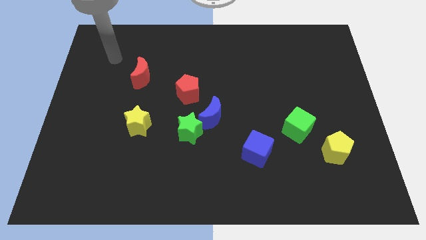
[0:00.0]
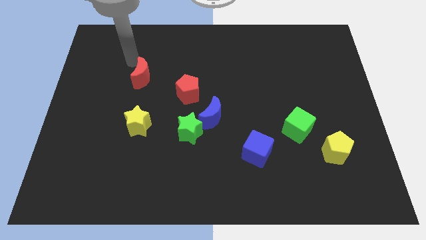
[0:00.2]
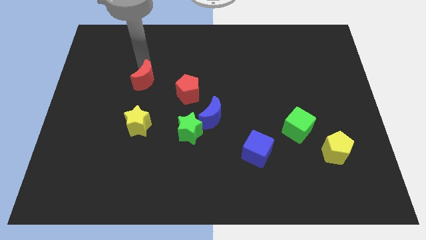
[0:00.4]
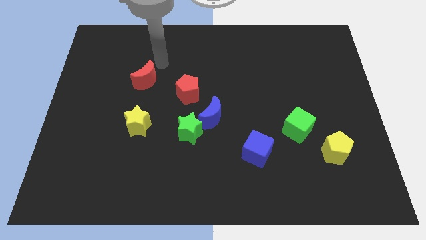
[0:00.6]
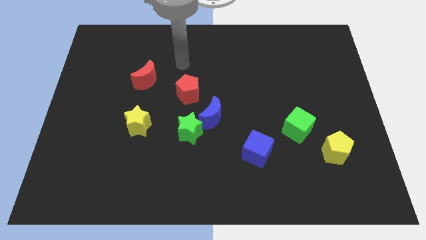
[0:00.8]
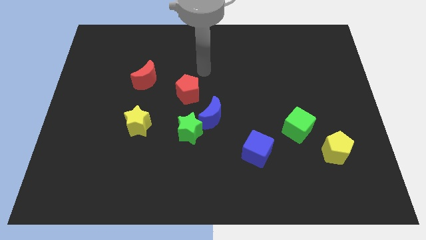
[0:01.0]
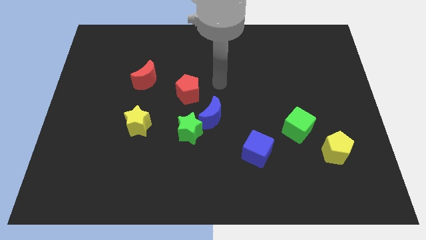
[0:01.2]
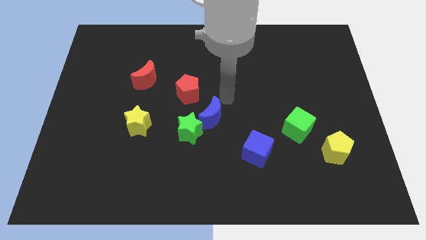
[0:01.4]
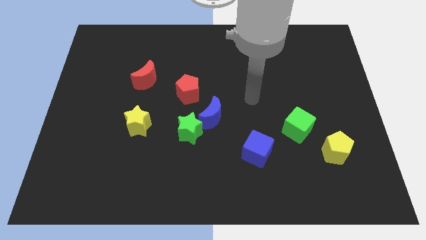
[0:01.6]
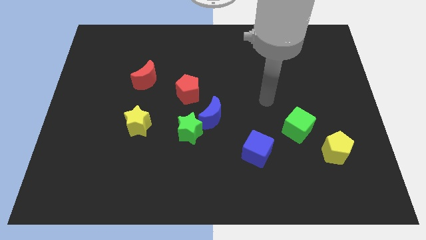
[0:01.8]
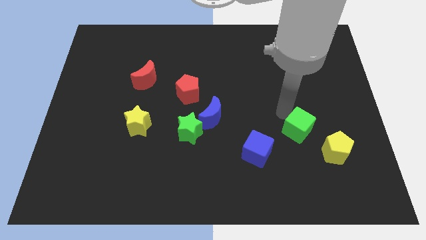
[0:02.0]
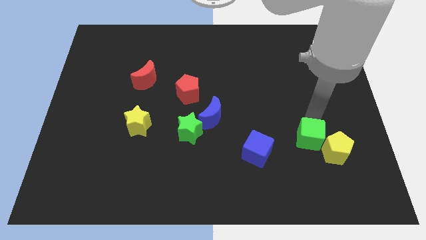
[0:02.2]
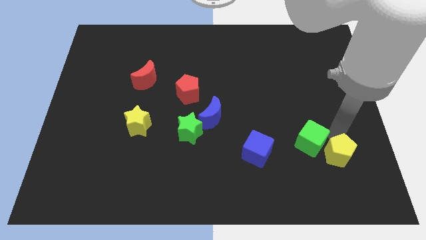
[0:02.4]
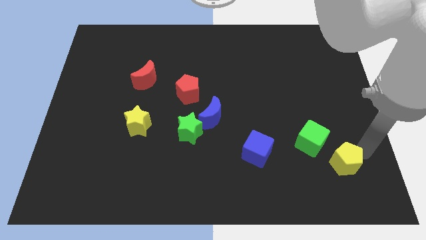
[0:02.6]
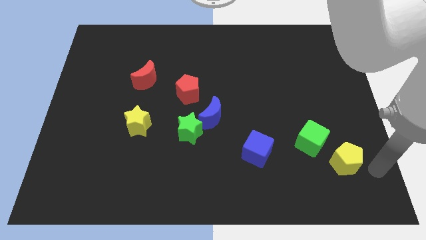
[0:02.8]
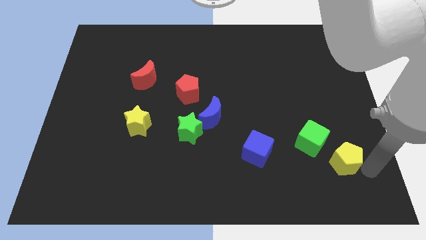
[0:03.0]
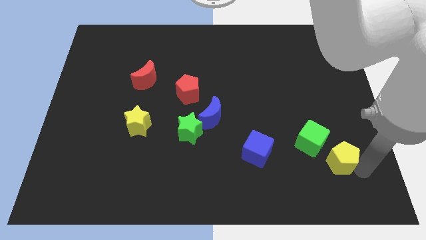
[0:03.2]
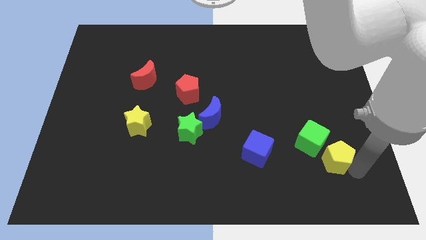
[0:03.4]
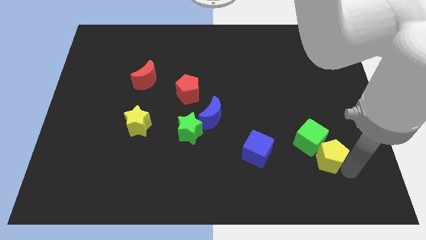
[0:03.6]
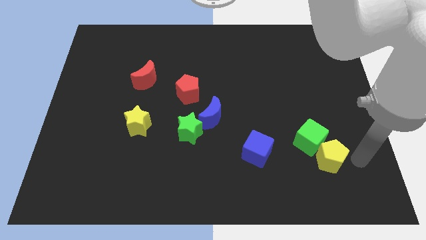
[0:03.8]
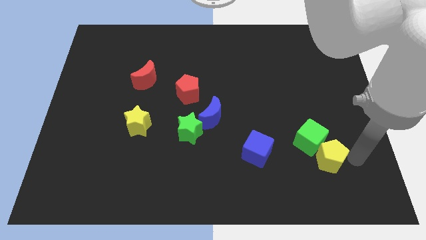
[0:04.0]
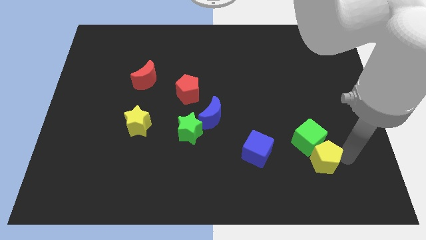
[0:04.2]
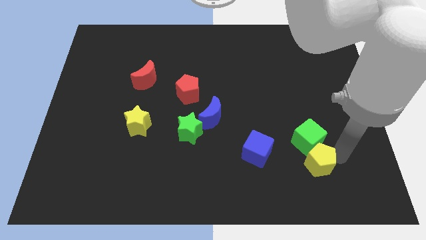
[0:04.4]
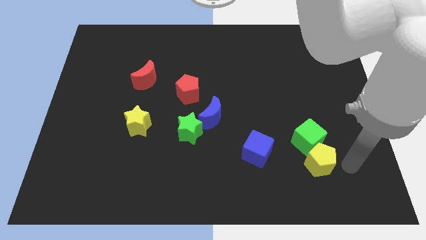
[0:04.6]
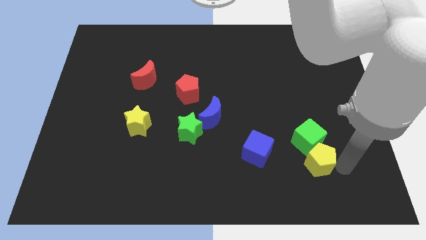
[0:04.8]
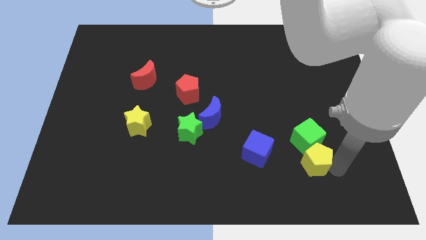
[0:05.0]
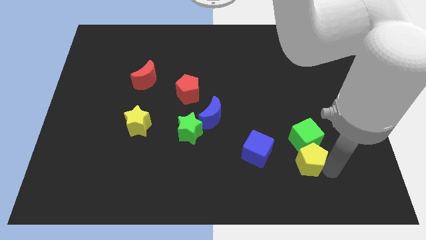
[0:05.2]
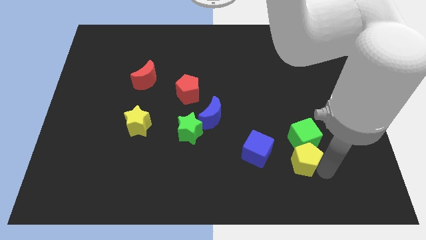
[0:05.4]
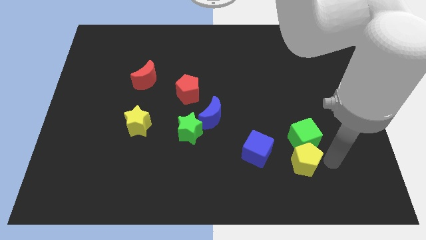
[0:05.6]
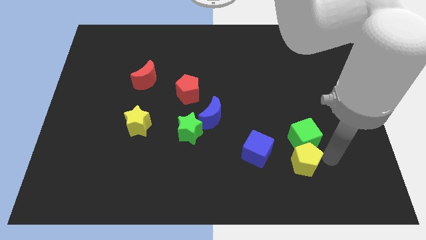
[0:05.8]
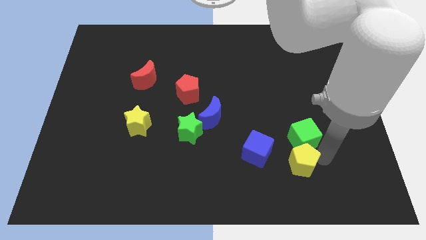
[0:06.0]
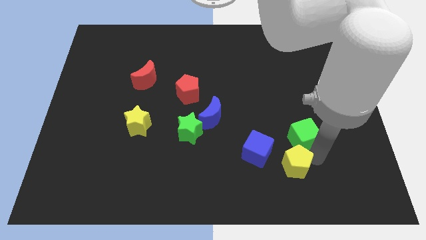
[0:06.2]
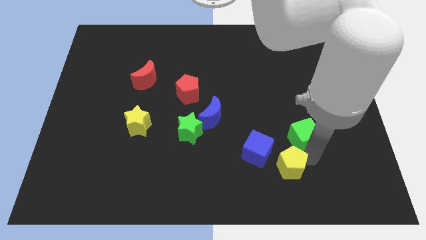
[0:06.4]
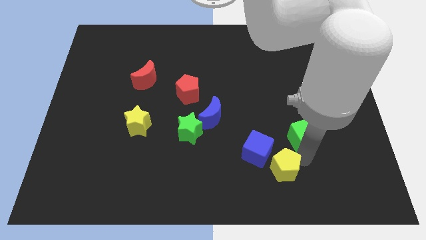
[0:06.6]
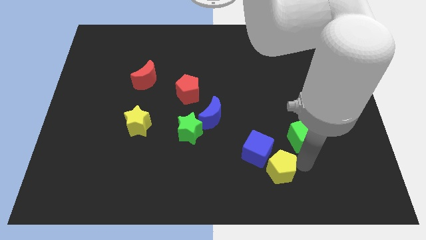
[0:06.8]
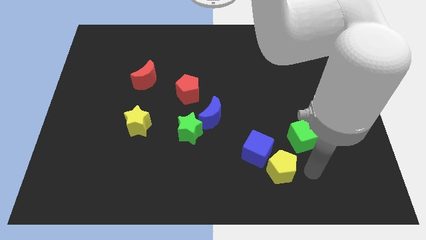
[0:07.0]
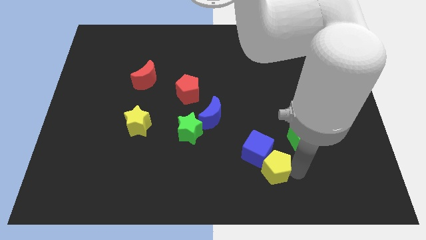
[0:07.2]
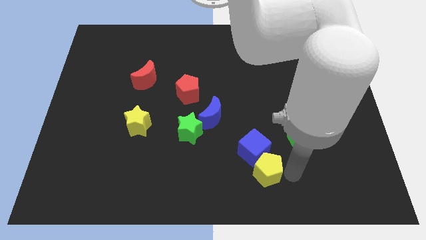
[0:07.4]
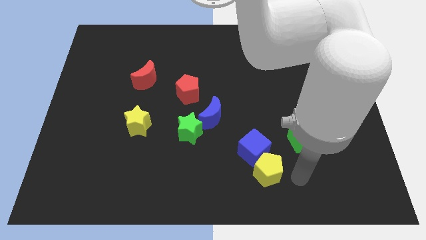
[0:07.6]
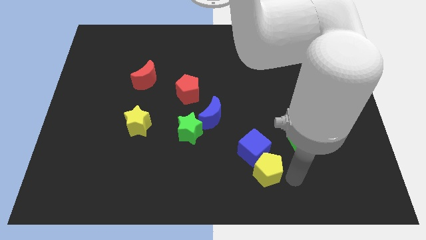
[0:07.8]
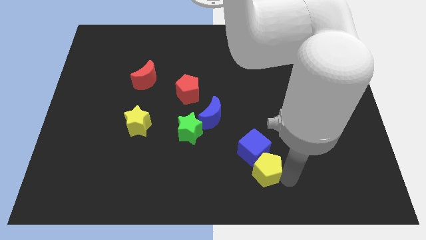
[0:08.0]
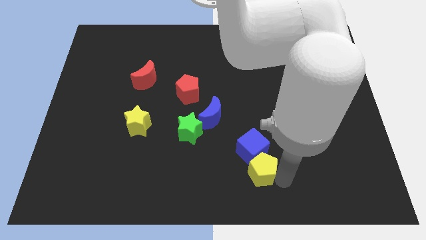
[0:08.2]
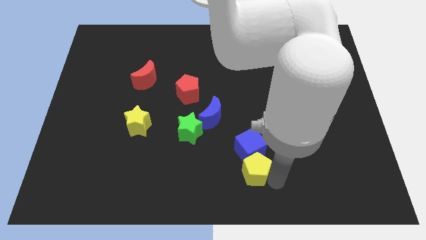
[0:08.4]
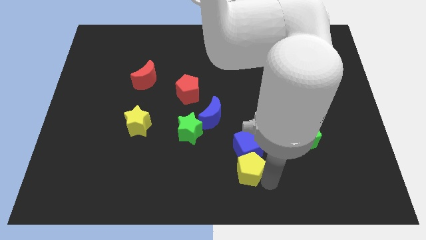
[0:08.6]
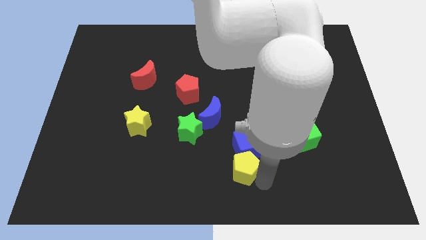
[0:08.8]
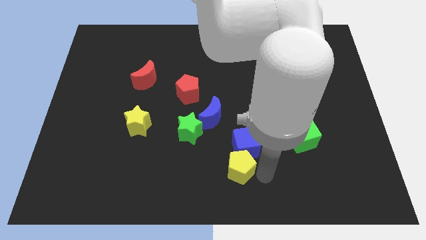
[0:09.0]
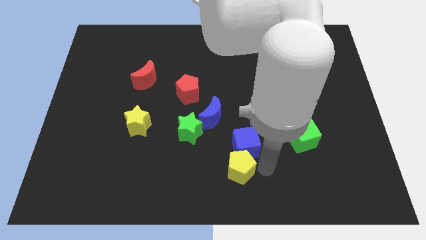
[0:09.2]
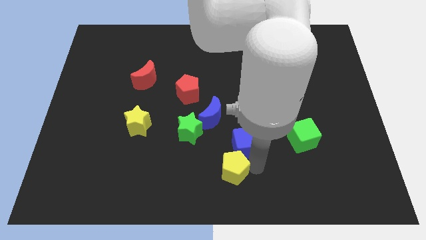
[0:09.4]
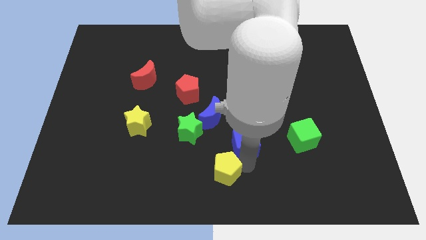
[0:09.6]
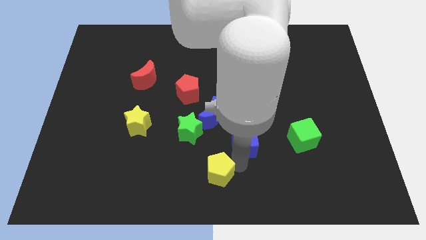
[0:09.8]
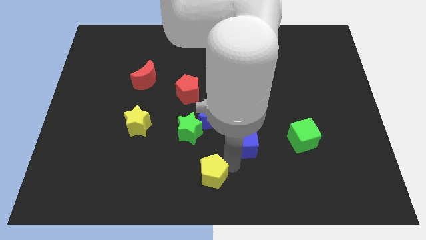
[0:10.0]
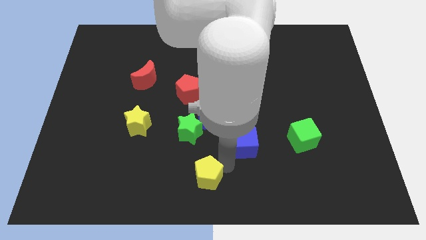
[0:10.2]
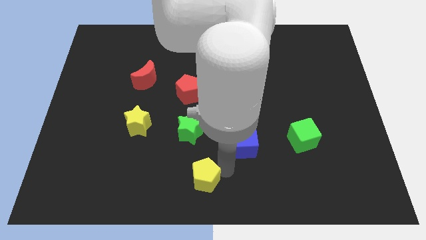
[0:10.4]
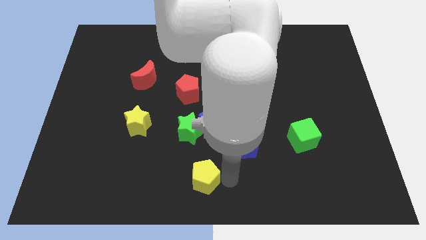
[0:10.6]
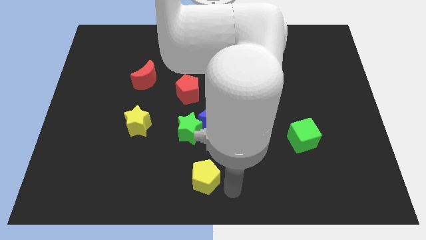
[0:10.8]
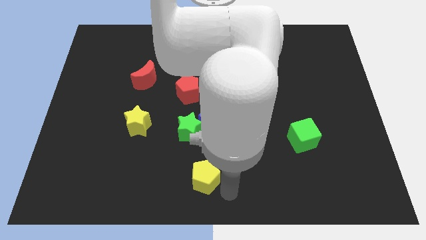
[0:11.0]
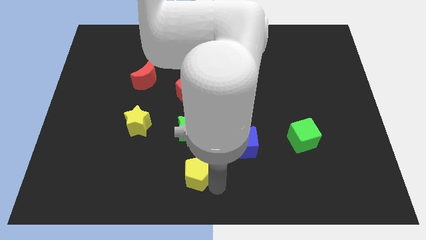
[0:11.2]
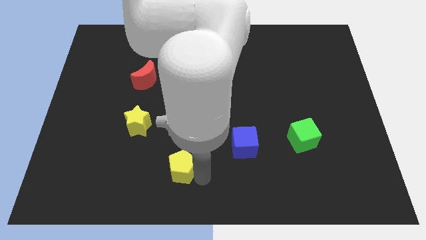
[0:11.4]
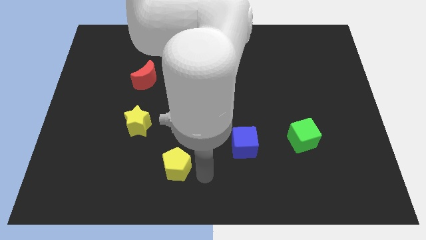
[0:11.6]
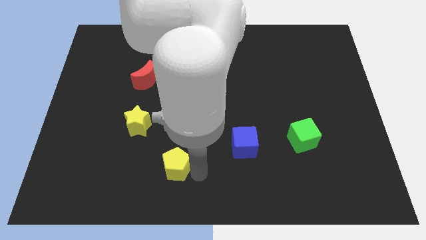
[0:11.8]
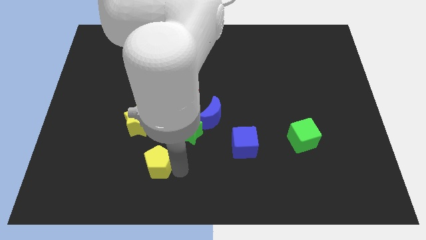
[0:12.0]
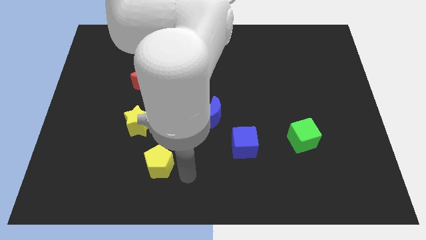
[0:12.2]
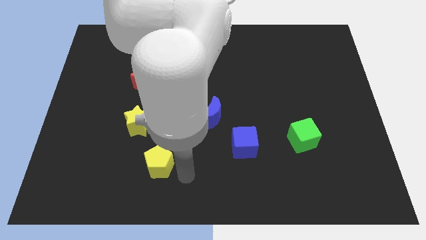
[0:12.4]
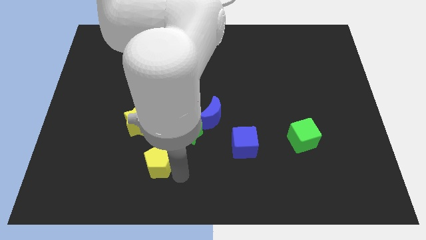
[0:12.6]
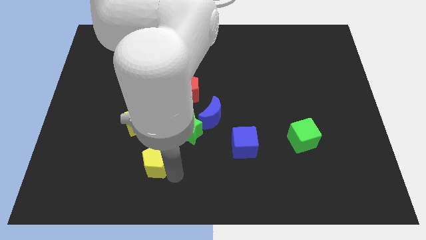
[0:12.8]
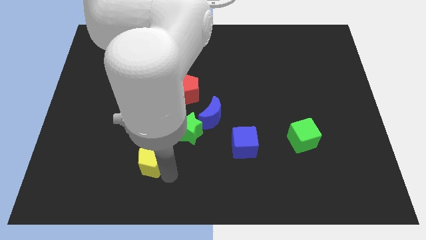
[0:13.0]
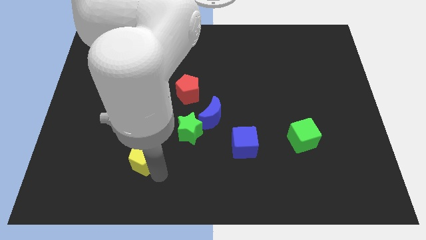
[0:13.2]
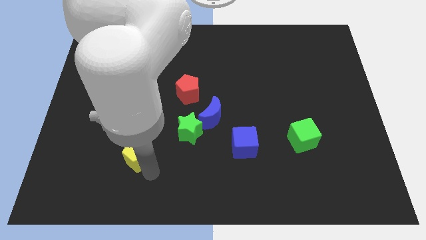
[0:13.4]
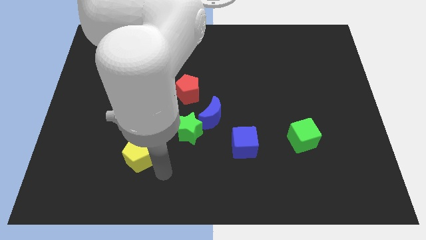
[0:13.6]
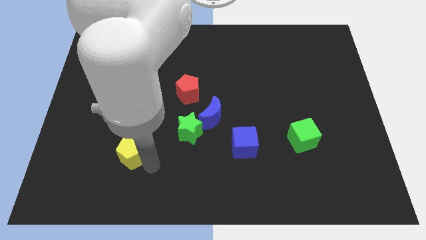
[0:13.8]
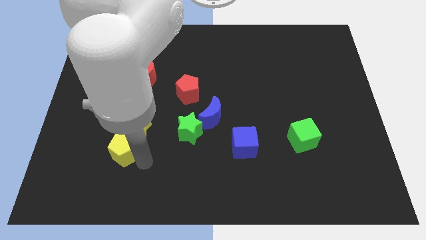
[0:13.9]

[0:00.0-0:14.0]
push the yellow pentagon diagonally down and to the left of the yellow star
